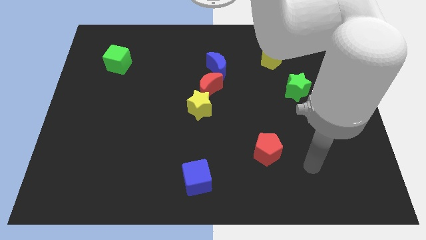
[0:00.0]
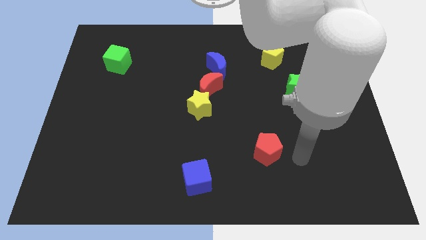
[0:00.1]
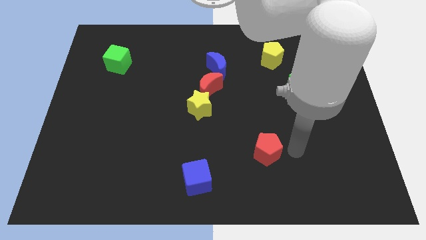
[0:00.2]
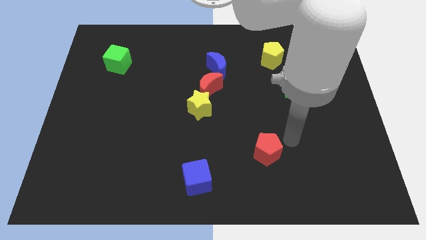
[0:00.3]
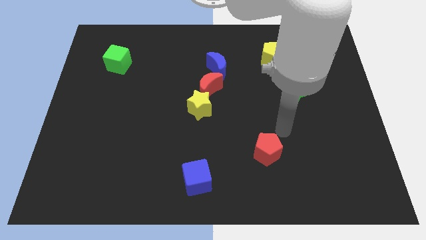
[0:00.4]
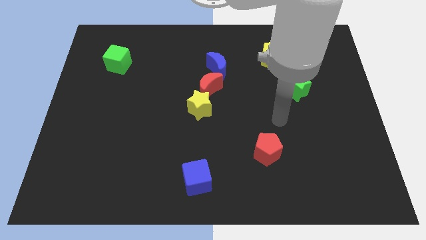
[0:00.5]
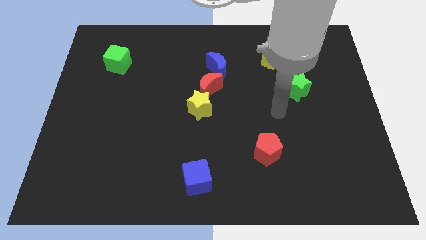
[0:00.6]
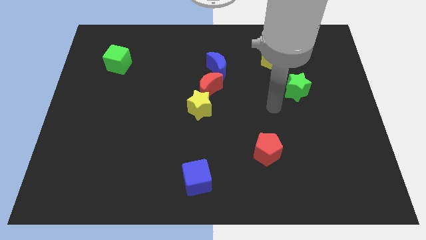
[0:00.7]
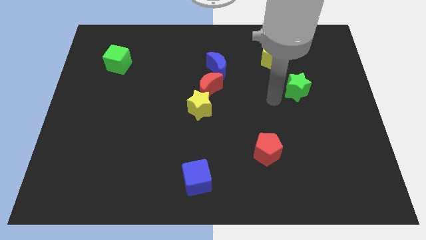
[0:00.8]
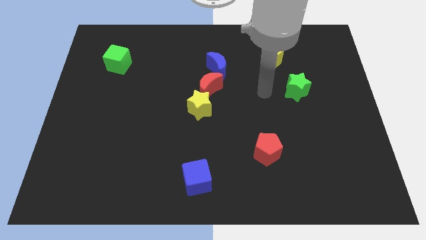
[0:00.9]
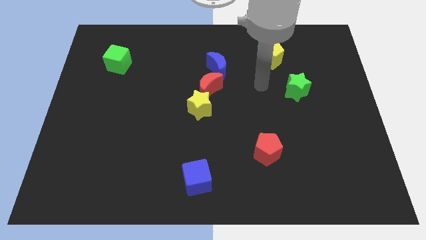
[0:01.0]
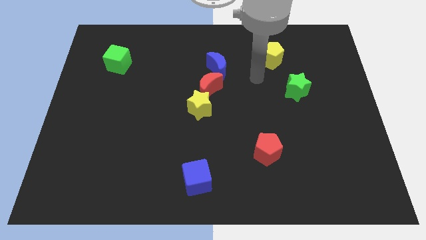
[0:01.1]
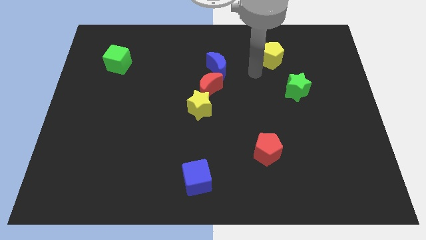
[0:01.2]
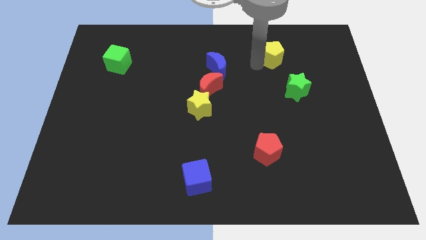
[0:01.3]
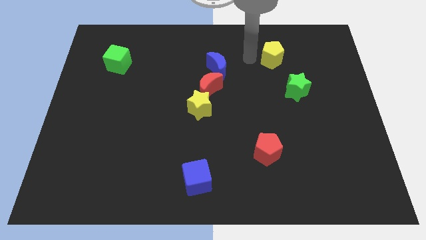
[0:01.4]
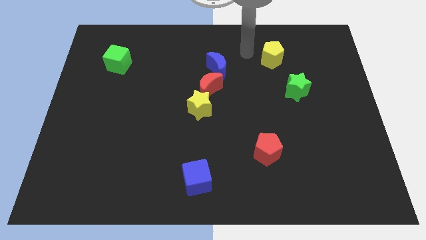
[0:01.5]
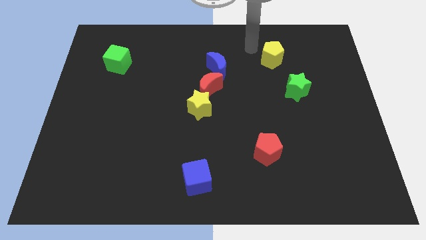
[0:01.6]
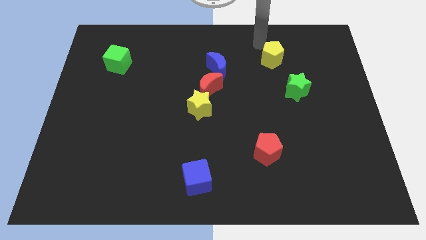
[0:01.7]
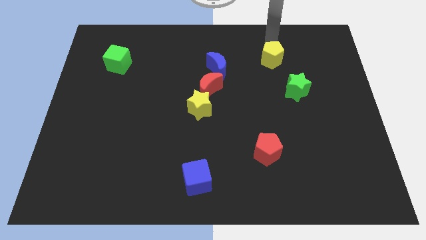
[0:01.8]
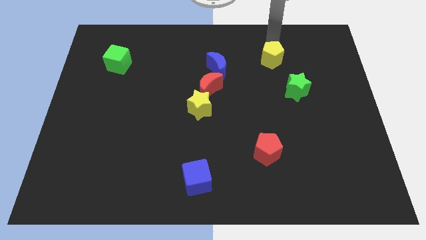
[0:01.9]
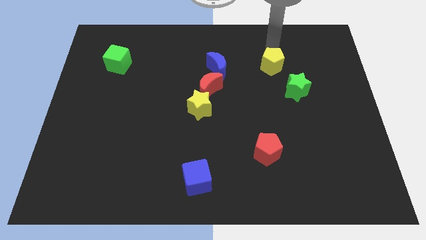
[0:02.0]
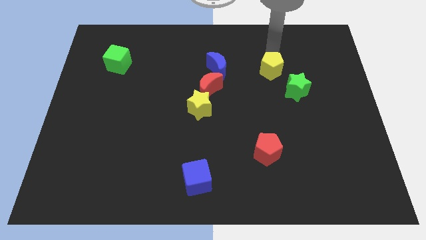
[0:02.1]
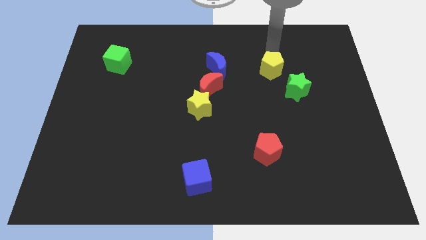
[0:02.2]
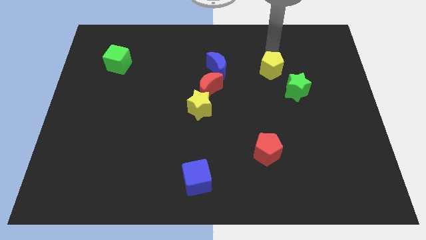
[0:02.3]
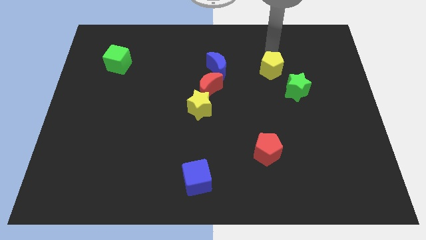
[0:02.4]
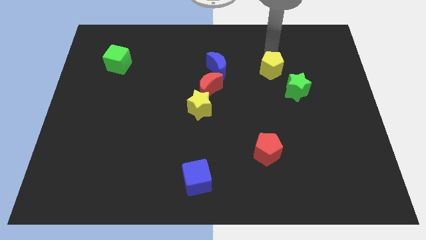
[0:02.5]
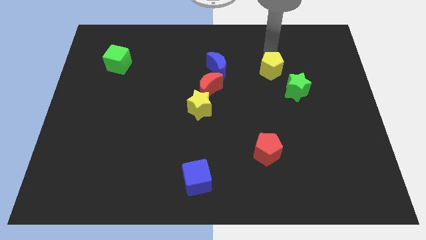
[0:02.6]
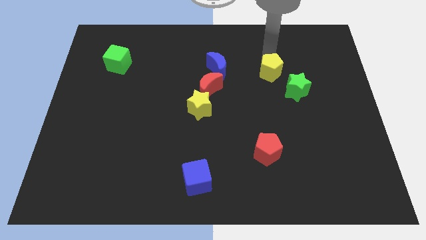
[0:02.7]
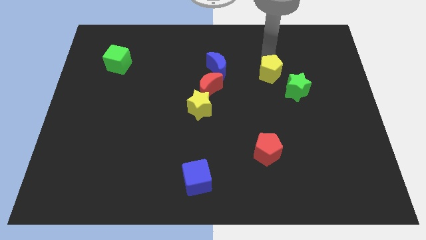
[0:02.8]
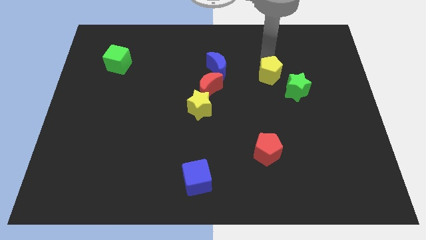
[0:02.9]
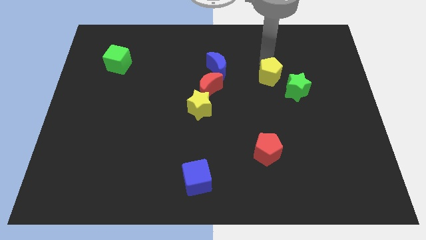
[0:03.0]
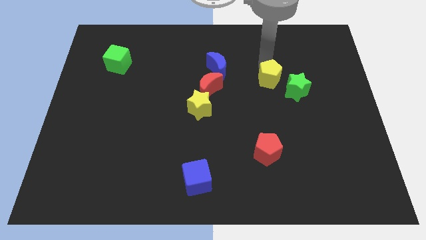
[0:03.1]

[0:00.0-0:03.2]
slide the yellow pentagon a bit down

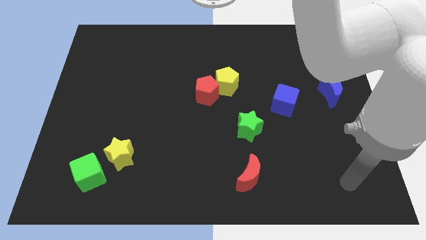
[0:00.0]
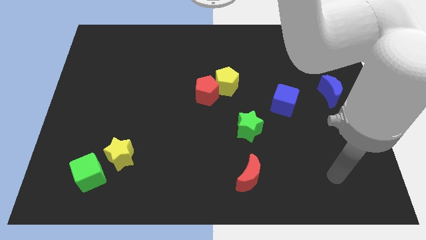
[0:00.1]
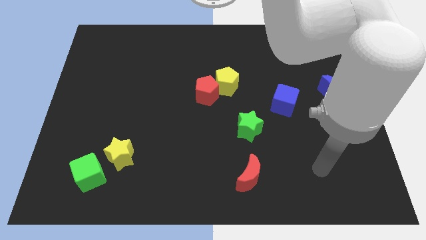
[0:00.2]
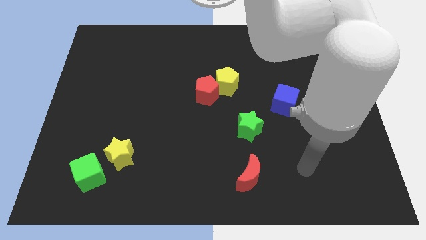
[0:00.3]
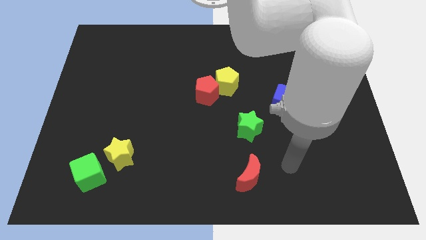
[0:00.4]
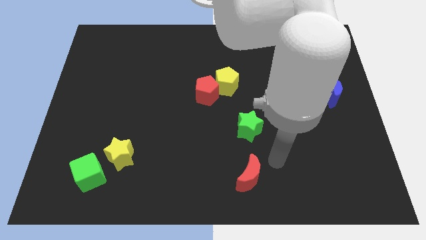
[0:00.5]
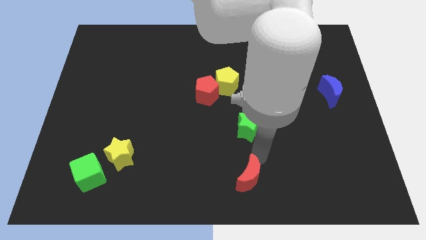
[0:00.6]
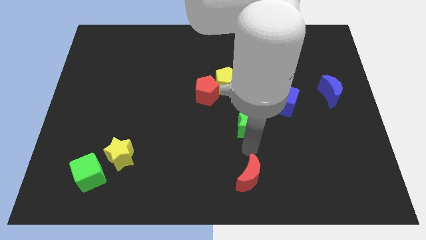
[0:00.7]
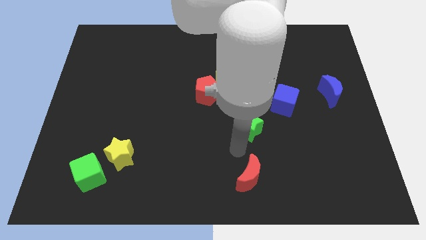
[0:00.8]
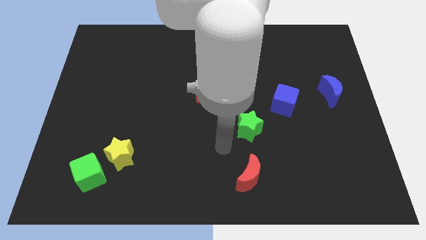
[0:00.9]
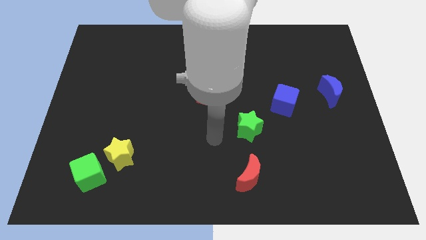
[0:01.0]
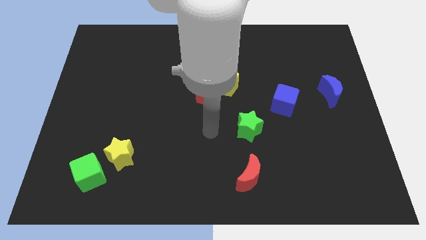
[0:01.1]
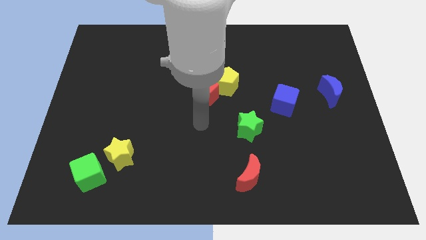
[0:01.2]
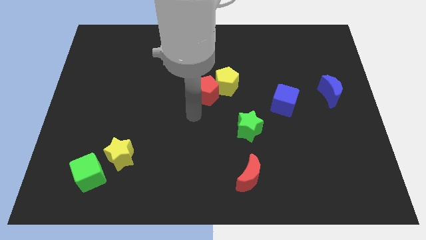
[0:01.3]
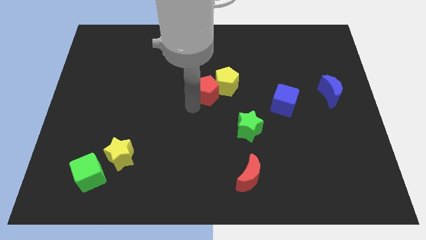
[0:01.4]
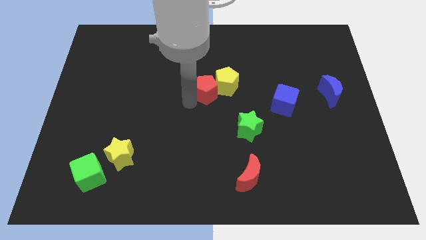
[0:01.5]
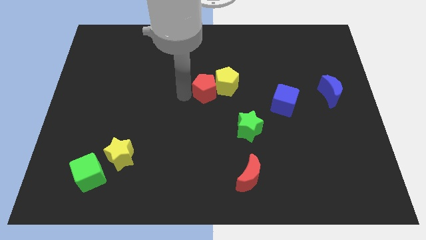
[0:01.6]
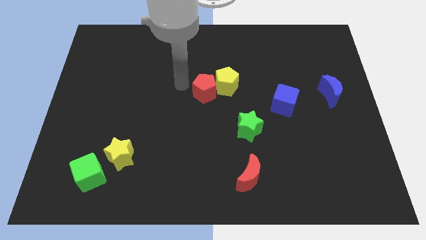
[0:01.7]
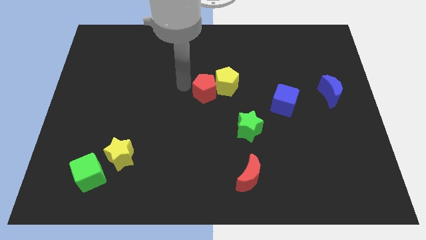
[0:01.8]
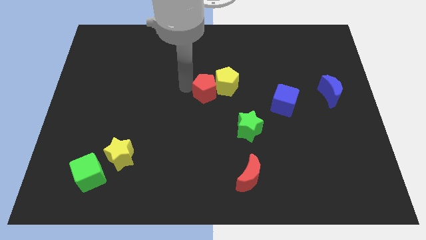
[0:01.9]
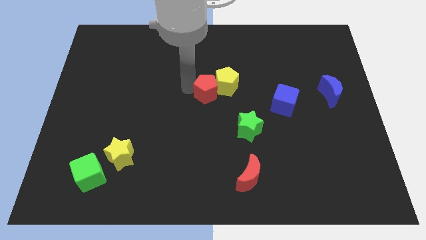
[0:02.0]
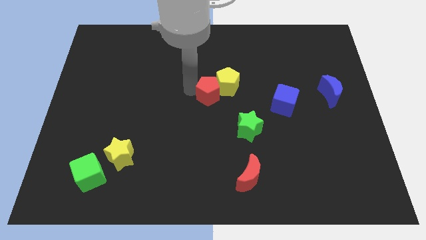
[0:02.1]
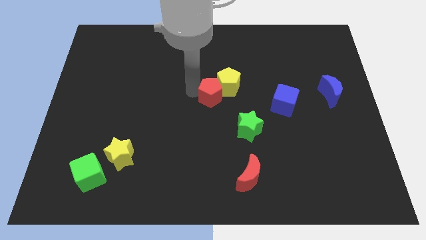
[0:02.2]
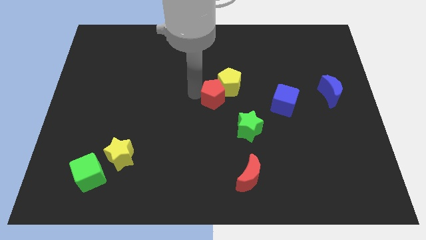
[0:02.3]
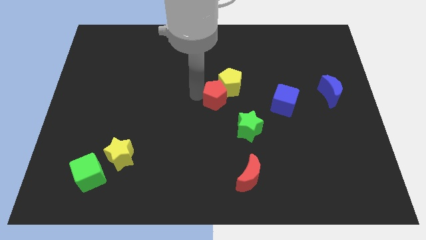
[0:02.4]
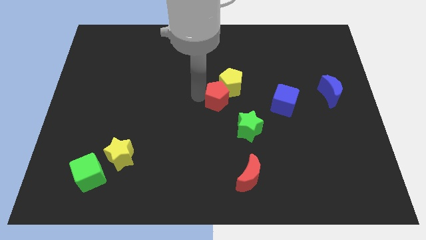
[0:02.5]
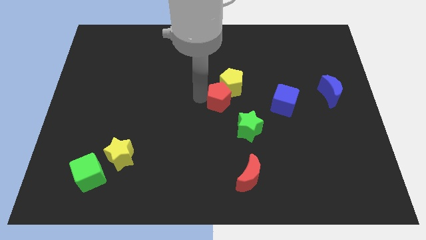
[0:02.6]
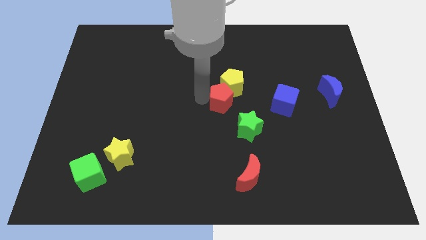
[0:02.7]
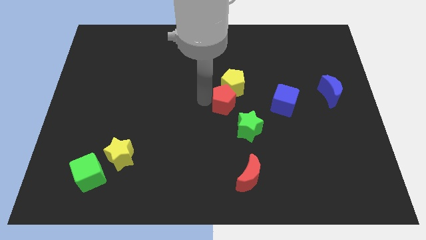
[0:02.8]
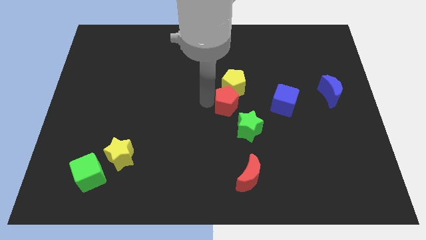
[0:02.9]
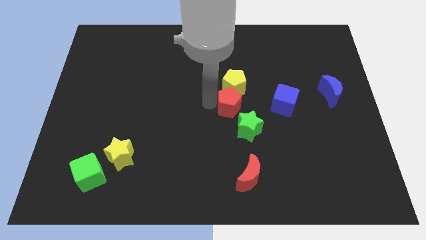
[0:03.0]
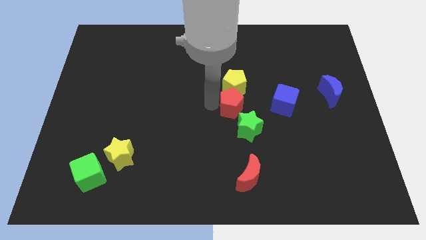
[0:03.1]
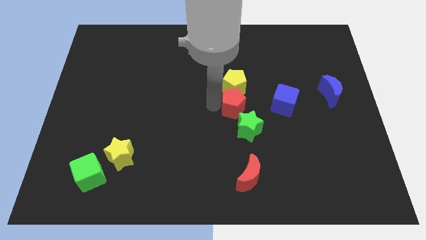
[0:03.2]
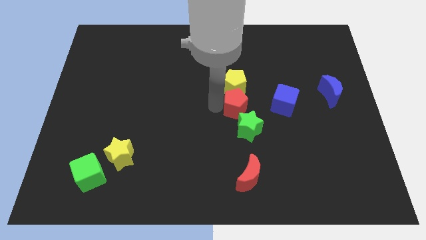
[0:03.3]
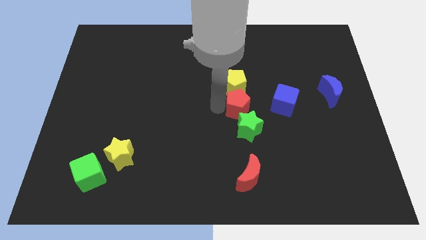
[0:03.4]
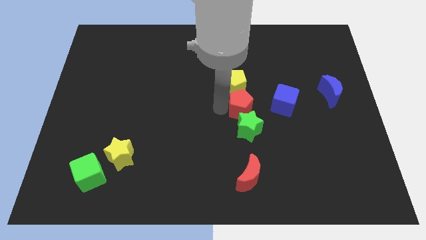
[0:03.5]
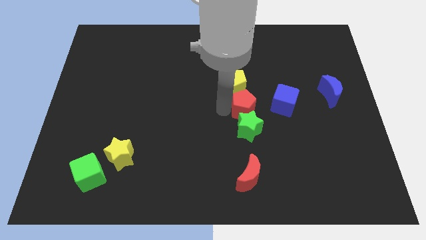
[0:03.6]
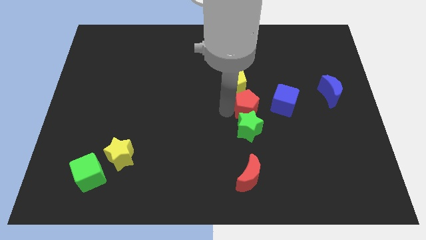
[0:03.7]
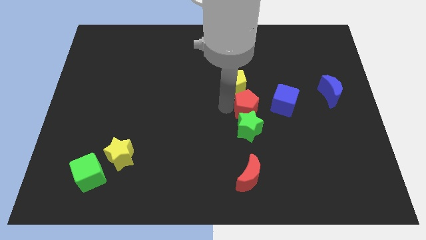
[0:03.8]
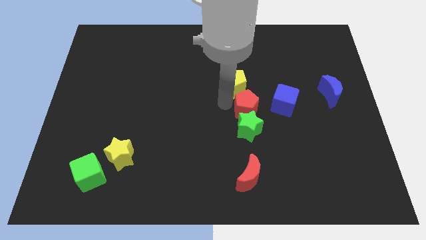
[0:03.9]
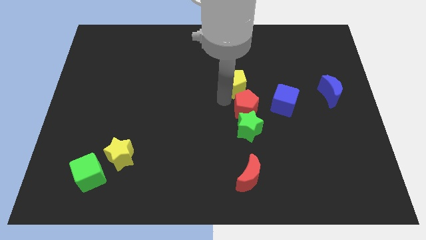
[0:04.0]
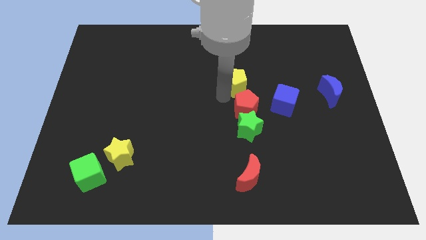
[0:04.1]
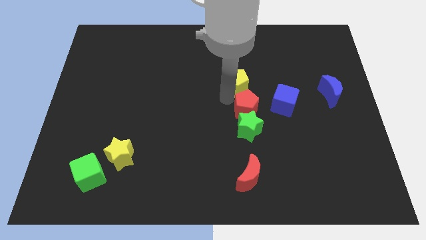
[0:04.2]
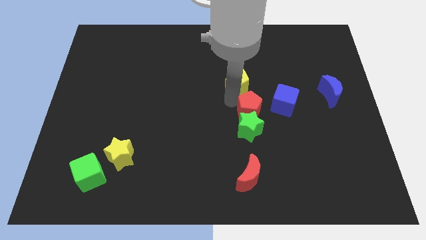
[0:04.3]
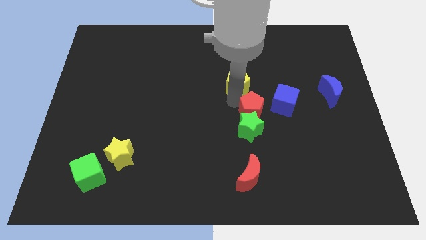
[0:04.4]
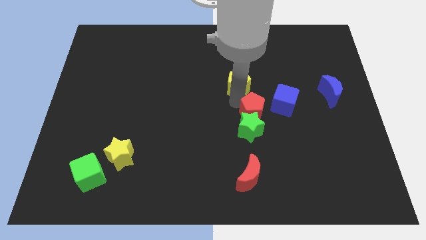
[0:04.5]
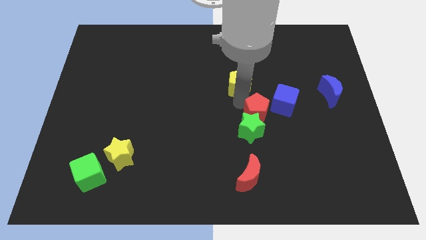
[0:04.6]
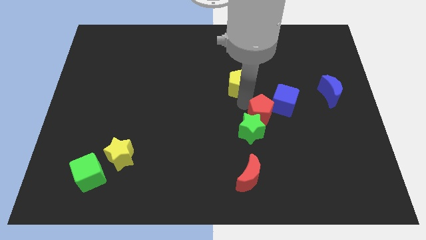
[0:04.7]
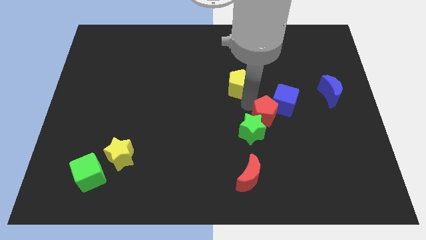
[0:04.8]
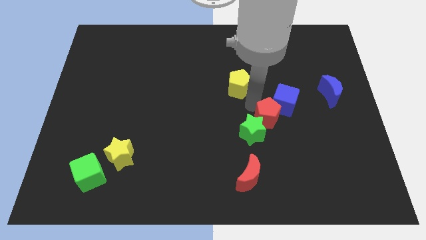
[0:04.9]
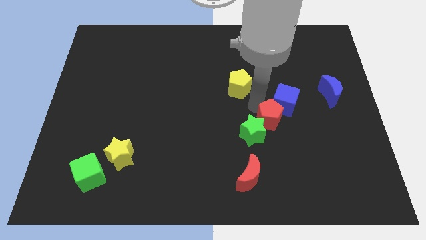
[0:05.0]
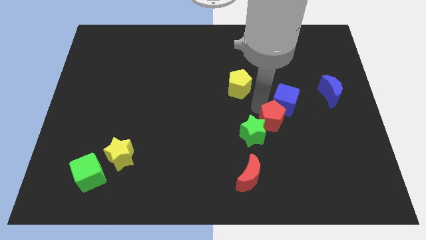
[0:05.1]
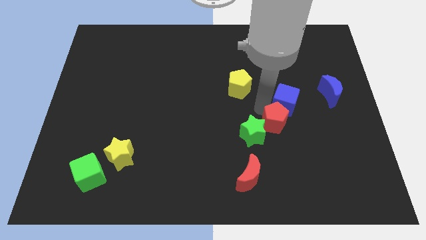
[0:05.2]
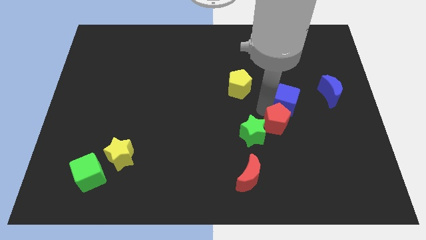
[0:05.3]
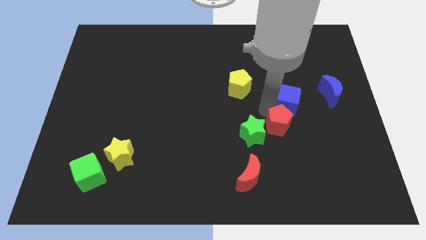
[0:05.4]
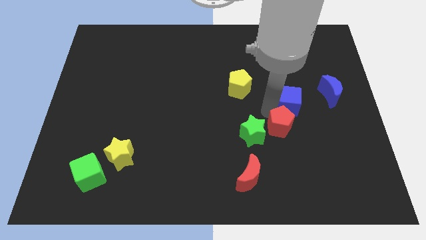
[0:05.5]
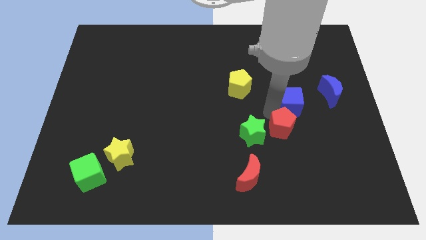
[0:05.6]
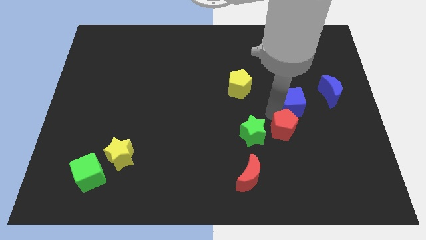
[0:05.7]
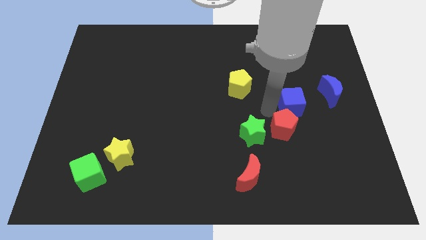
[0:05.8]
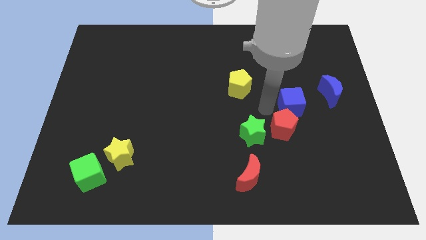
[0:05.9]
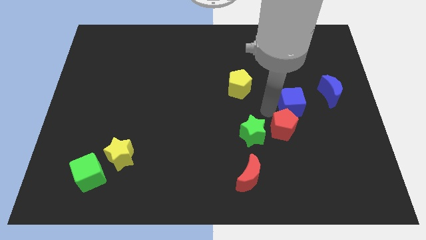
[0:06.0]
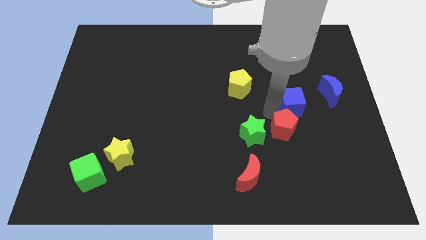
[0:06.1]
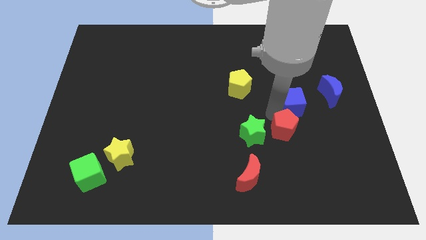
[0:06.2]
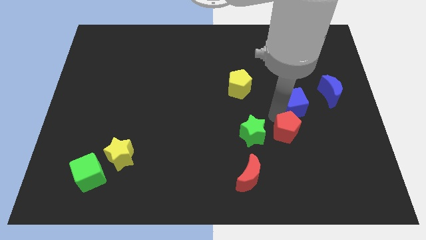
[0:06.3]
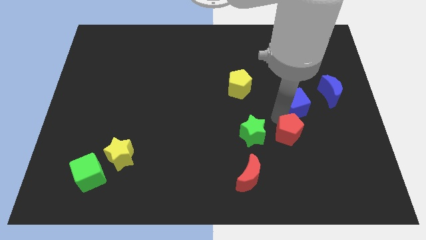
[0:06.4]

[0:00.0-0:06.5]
slide the red pentagon downwards and to the right
